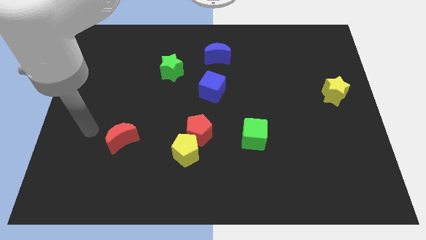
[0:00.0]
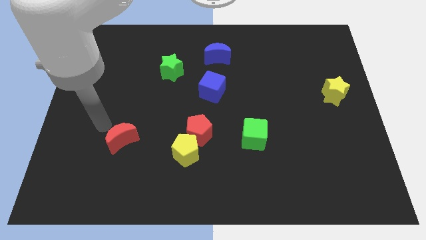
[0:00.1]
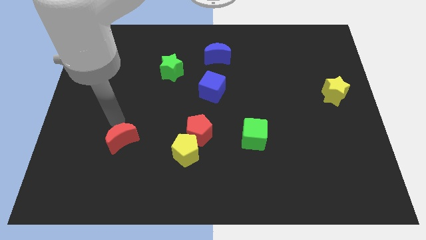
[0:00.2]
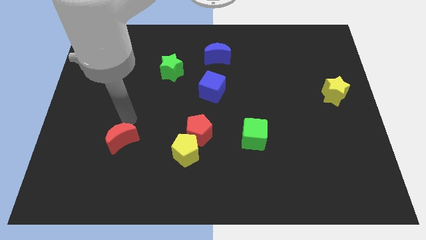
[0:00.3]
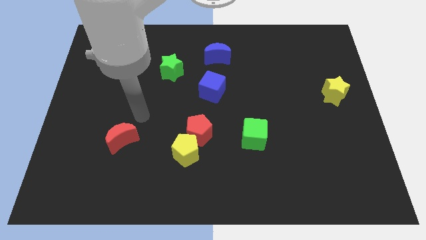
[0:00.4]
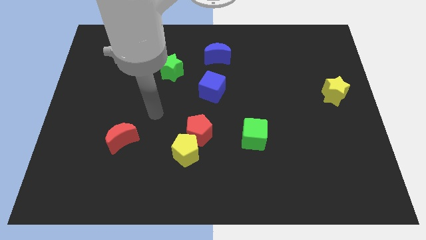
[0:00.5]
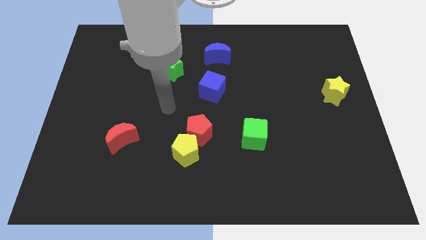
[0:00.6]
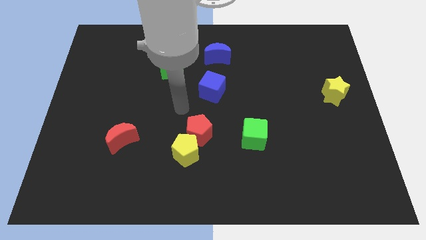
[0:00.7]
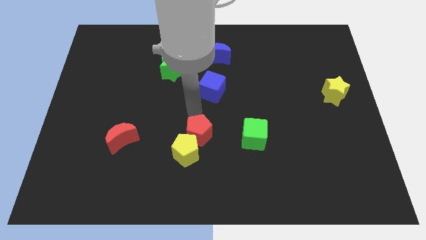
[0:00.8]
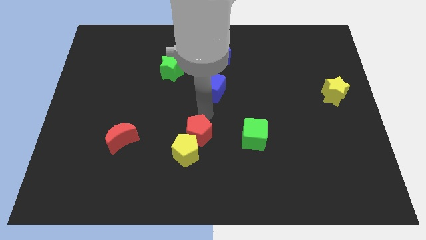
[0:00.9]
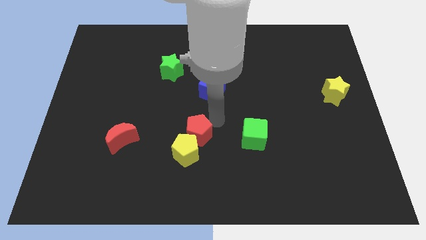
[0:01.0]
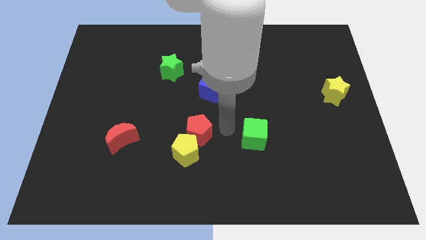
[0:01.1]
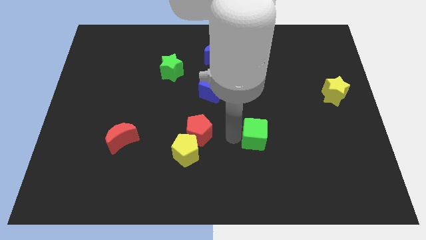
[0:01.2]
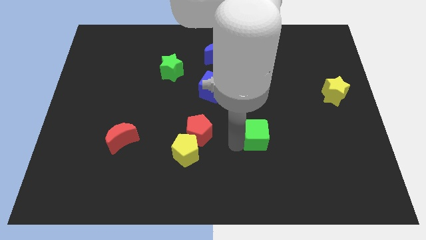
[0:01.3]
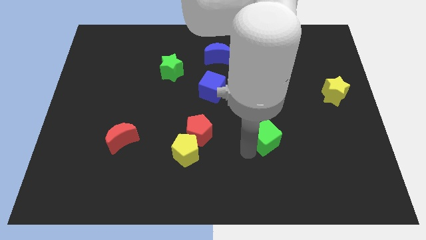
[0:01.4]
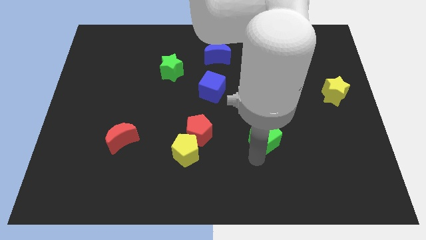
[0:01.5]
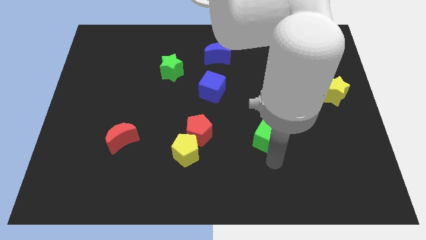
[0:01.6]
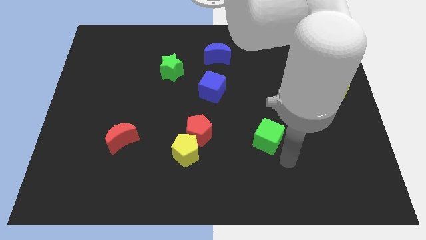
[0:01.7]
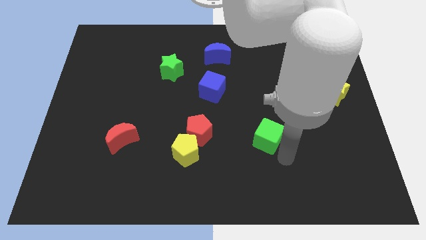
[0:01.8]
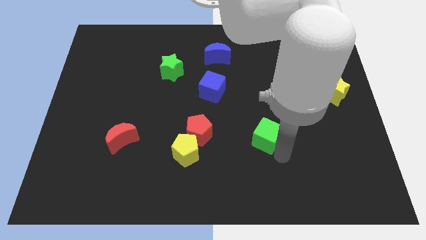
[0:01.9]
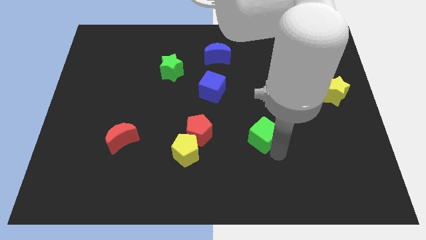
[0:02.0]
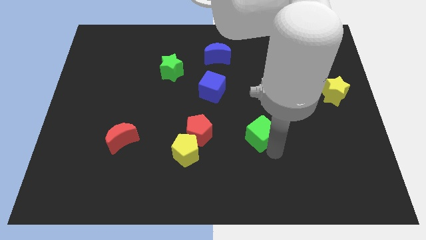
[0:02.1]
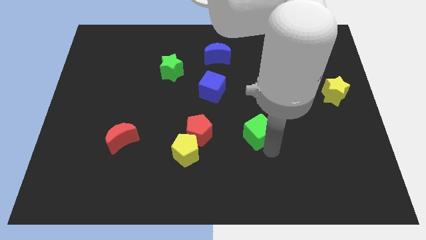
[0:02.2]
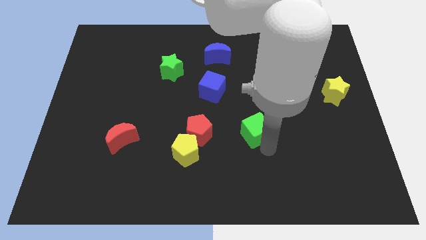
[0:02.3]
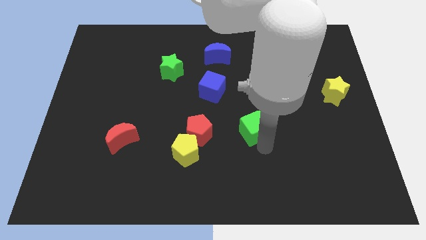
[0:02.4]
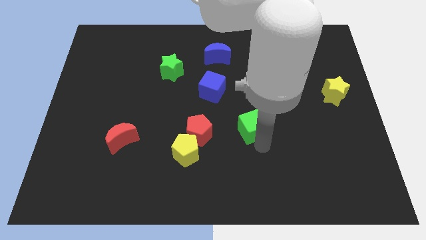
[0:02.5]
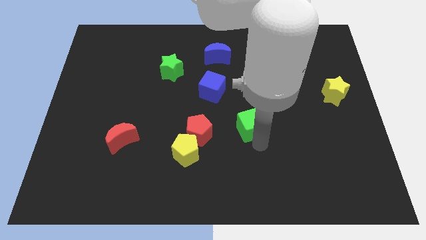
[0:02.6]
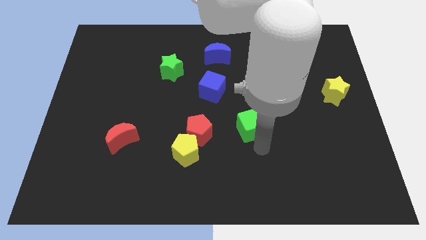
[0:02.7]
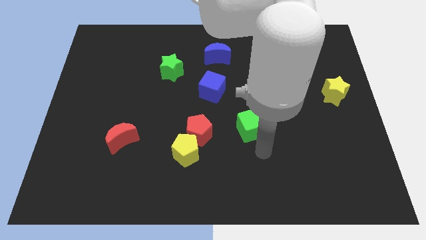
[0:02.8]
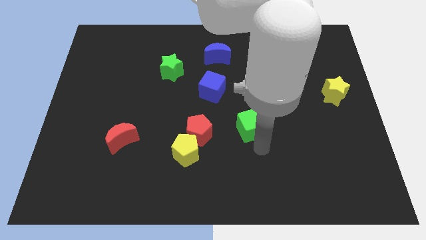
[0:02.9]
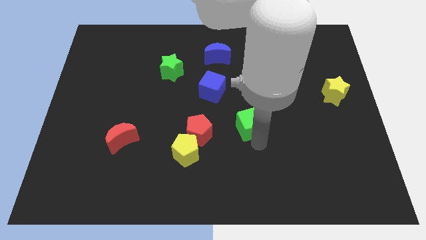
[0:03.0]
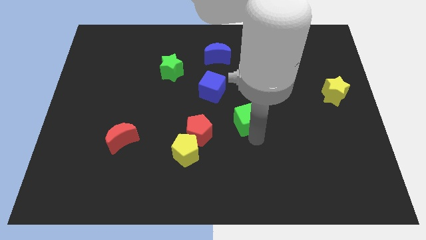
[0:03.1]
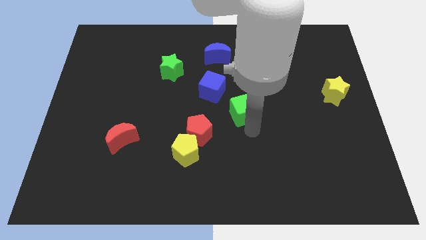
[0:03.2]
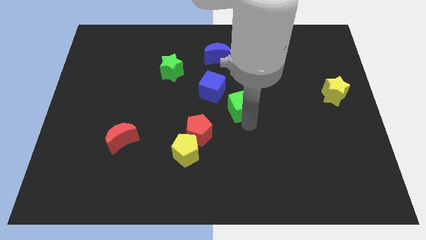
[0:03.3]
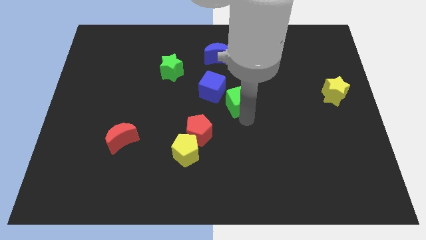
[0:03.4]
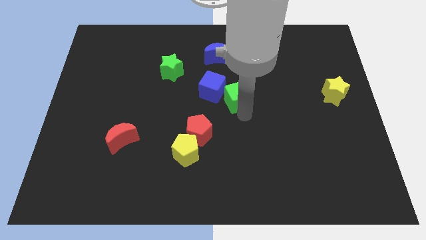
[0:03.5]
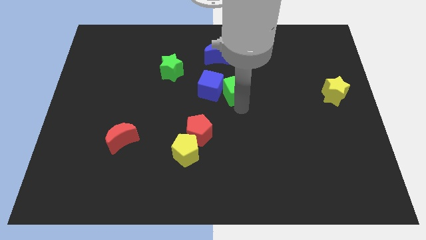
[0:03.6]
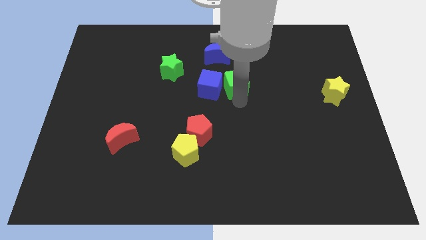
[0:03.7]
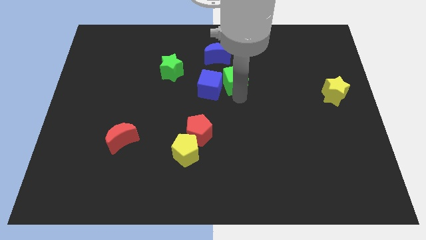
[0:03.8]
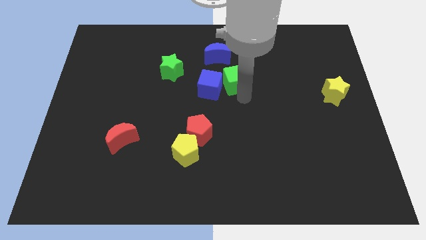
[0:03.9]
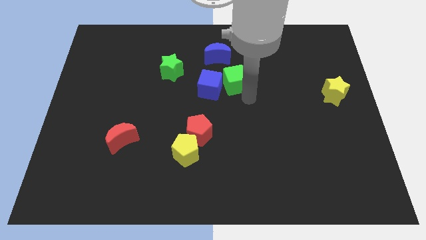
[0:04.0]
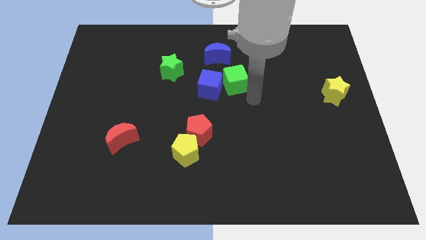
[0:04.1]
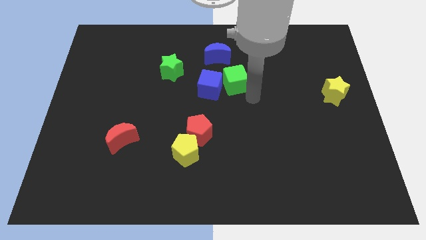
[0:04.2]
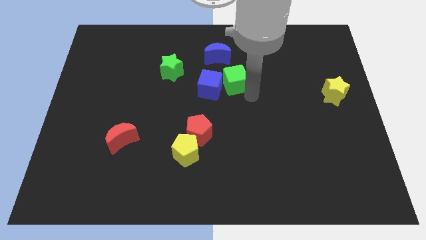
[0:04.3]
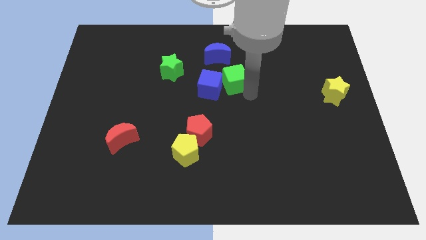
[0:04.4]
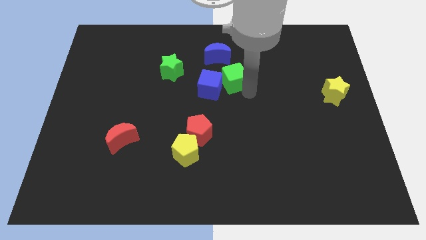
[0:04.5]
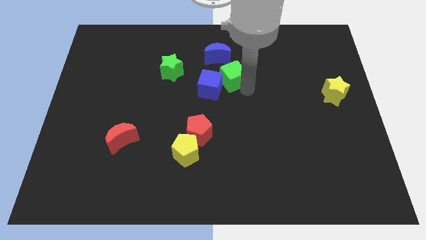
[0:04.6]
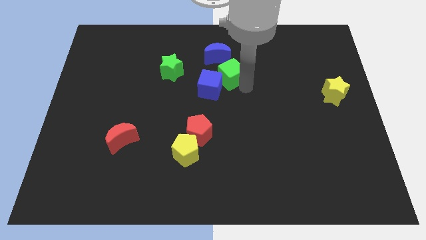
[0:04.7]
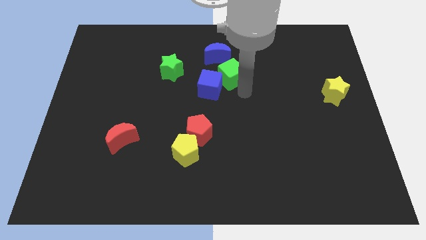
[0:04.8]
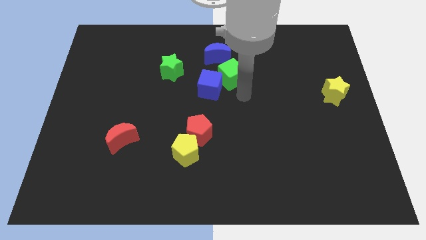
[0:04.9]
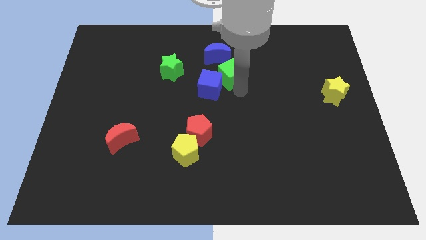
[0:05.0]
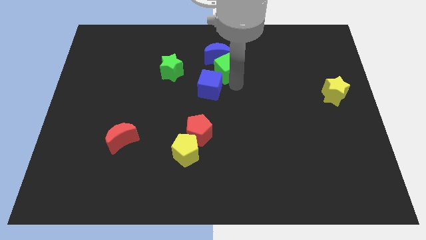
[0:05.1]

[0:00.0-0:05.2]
slide the green cube towards the blue moon

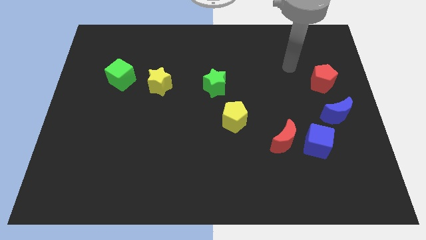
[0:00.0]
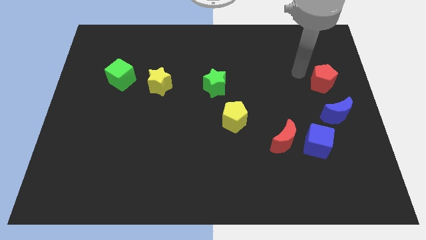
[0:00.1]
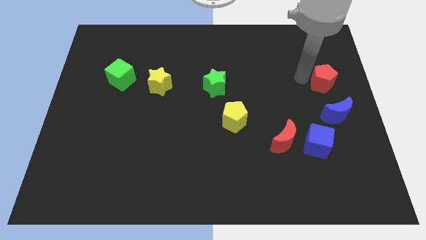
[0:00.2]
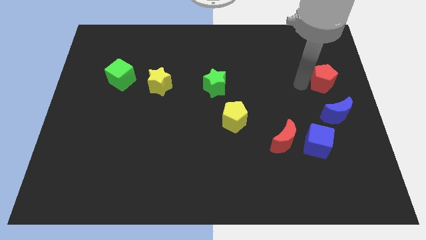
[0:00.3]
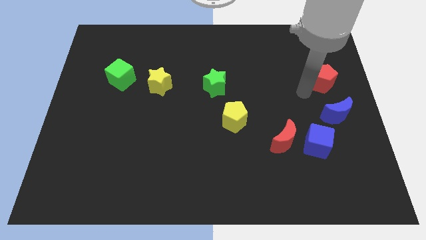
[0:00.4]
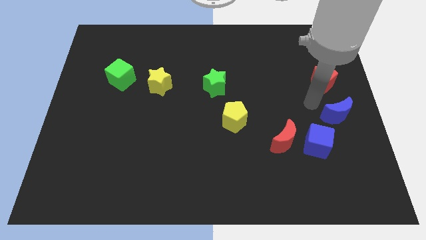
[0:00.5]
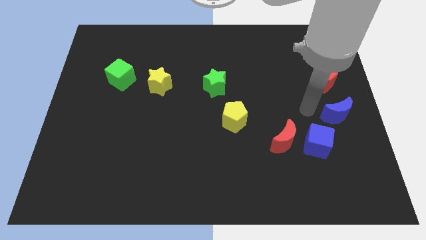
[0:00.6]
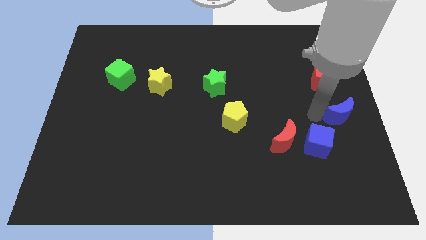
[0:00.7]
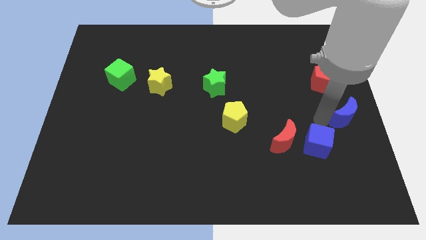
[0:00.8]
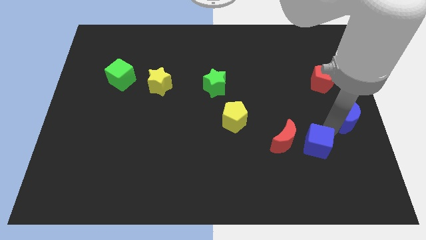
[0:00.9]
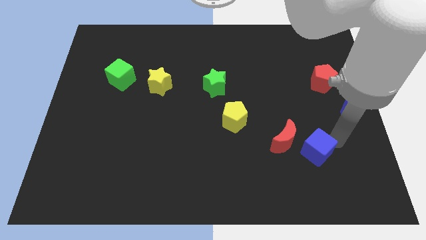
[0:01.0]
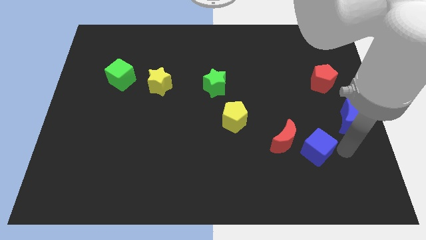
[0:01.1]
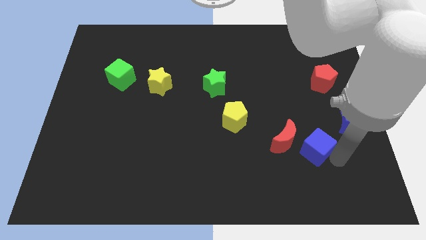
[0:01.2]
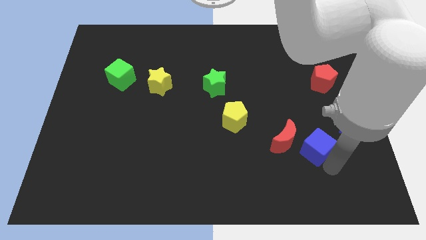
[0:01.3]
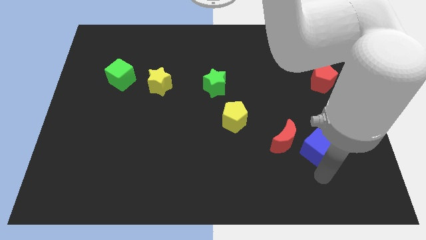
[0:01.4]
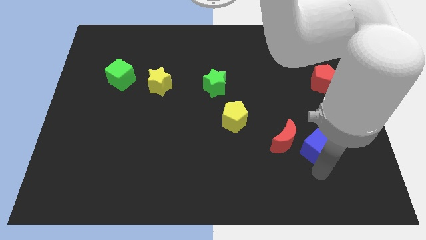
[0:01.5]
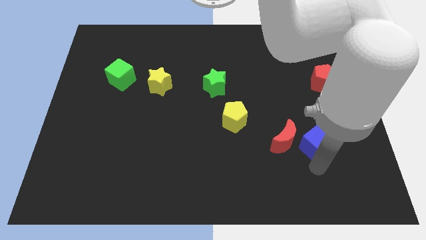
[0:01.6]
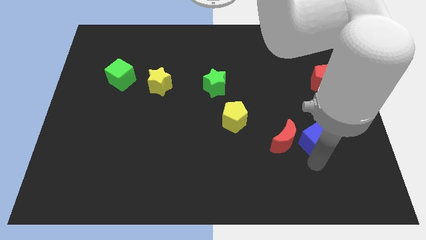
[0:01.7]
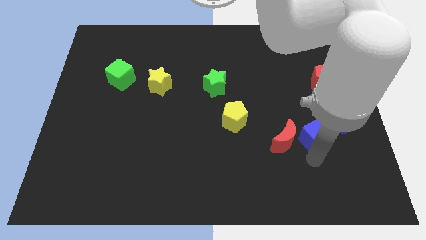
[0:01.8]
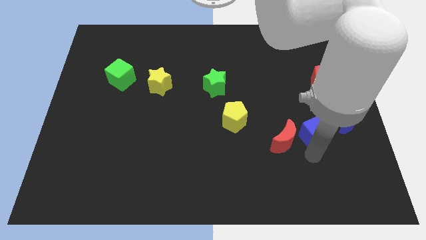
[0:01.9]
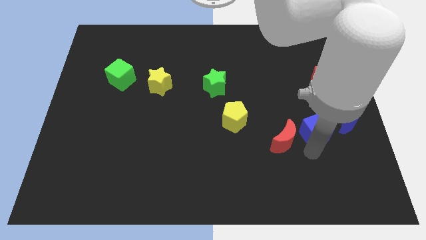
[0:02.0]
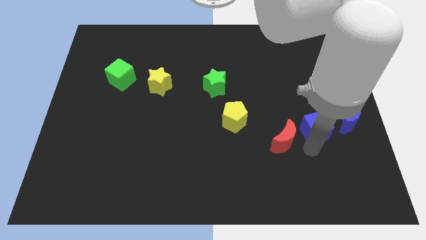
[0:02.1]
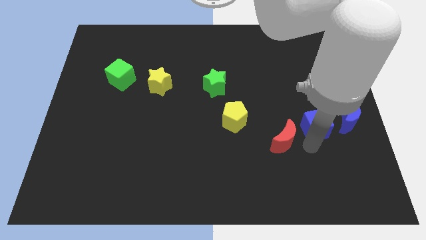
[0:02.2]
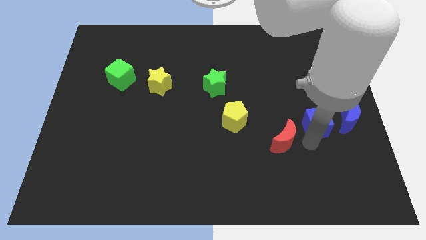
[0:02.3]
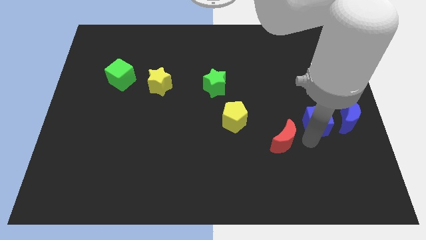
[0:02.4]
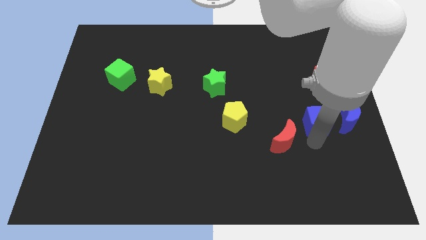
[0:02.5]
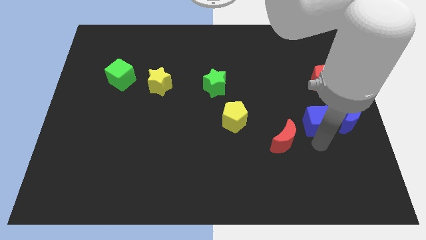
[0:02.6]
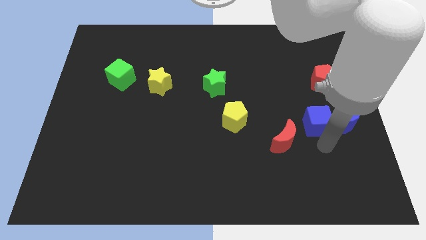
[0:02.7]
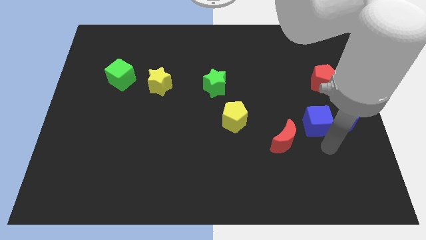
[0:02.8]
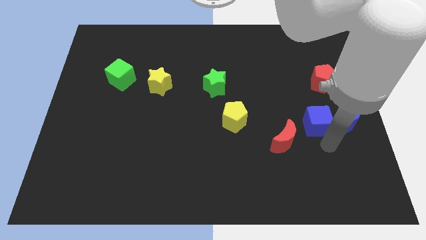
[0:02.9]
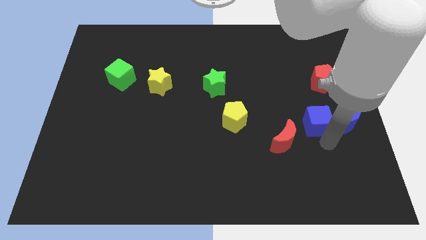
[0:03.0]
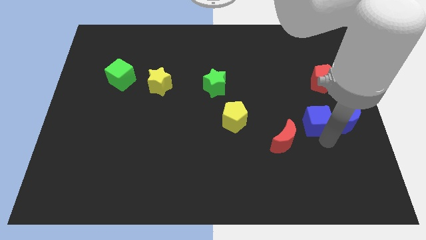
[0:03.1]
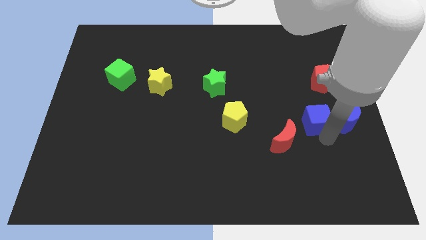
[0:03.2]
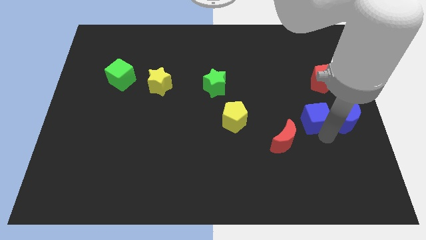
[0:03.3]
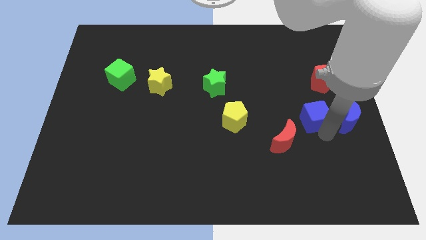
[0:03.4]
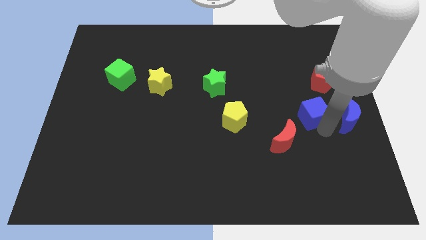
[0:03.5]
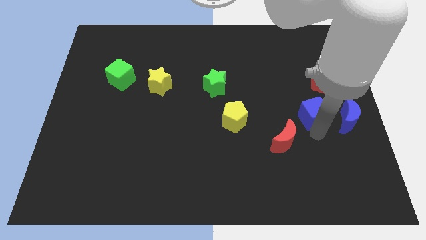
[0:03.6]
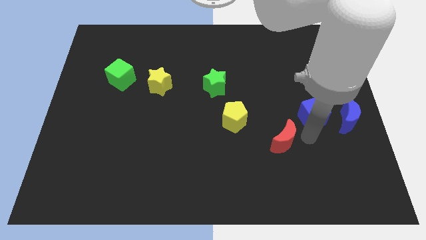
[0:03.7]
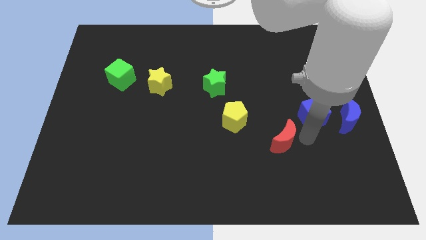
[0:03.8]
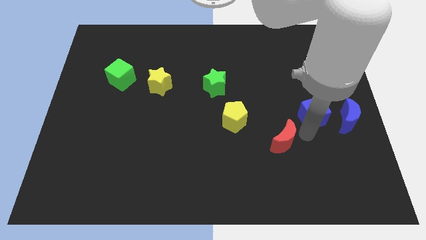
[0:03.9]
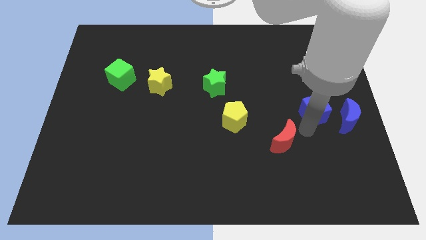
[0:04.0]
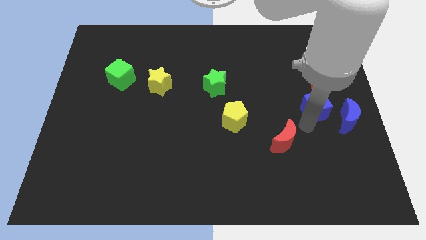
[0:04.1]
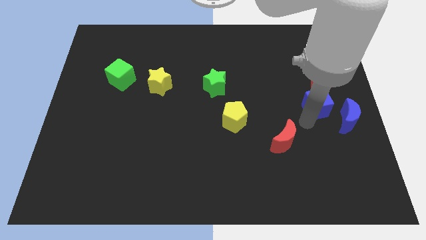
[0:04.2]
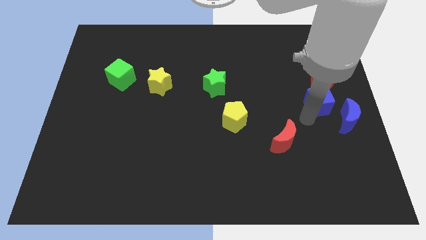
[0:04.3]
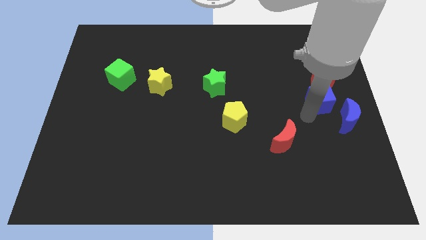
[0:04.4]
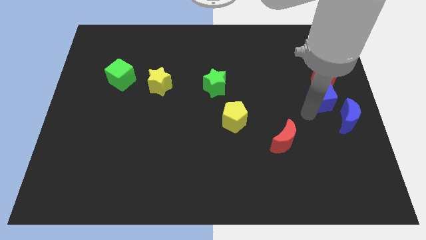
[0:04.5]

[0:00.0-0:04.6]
put the blue cube next to the red pentagon
